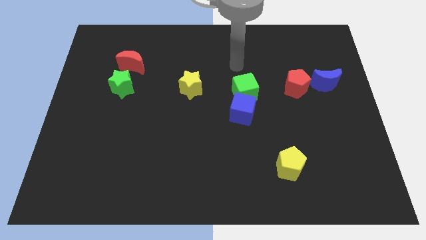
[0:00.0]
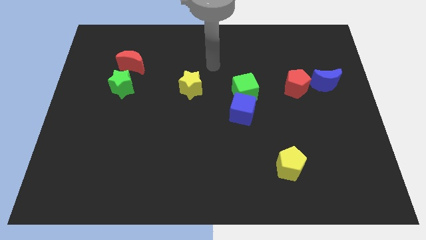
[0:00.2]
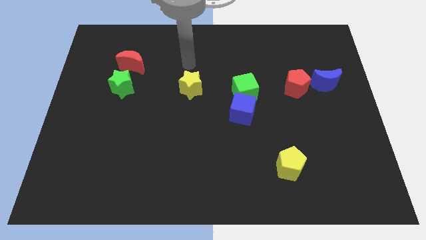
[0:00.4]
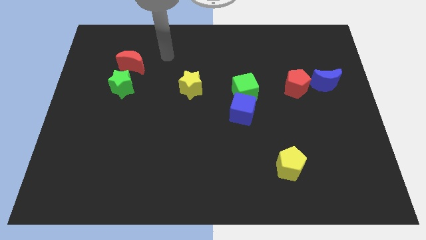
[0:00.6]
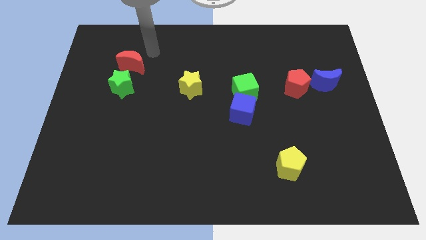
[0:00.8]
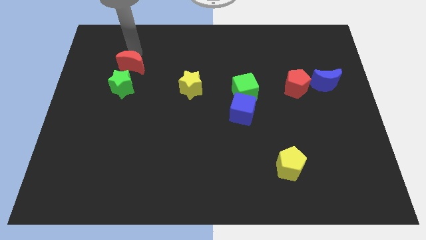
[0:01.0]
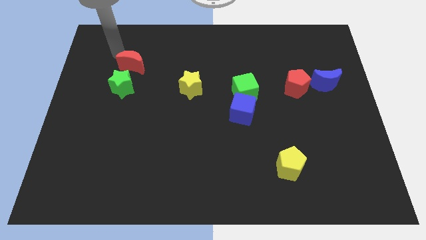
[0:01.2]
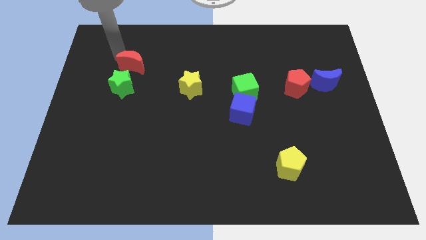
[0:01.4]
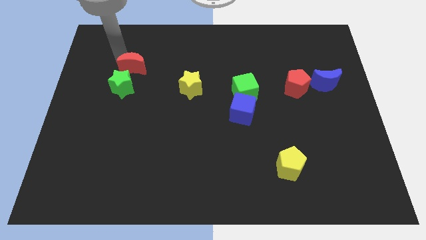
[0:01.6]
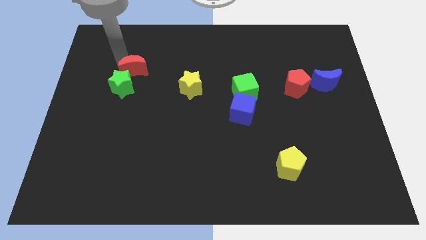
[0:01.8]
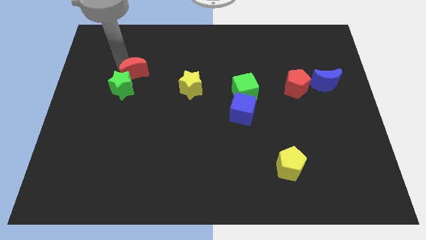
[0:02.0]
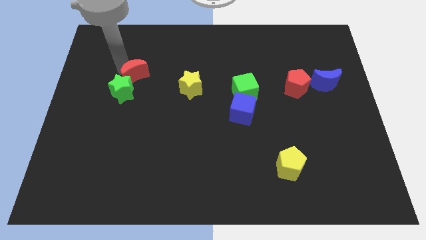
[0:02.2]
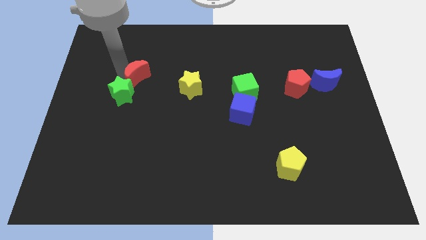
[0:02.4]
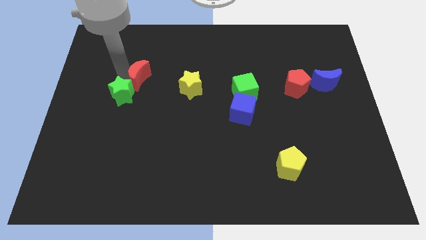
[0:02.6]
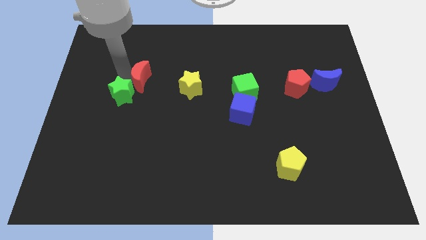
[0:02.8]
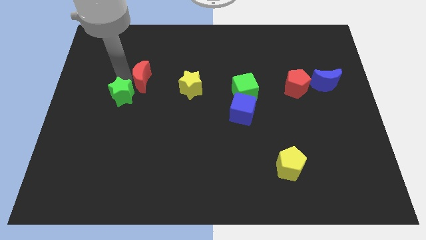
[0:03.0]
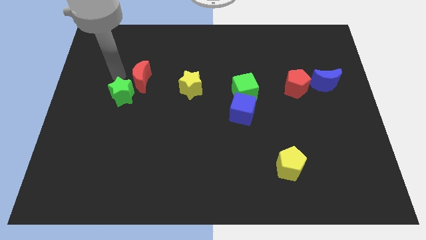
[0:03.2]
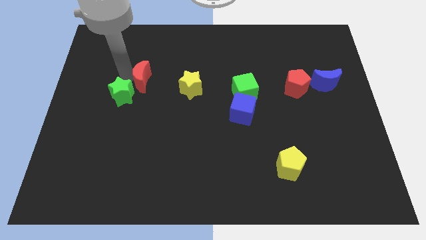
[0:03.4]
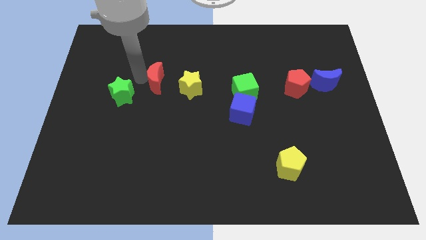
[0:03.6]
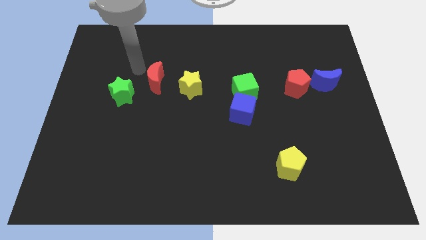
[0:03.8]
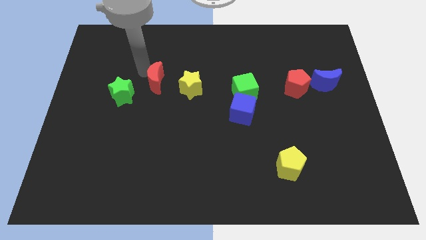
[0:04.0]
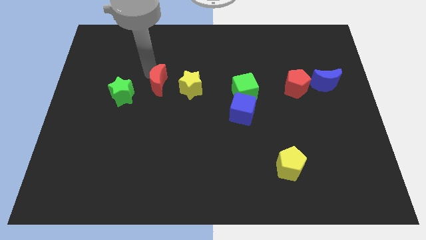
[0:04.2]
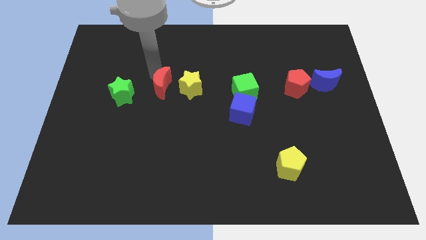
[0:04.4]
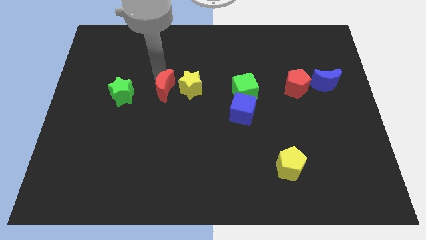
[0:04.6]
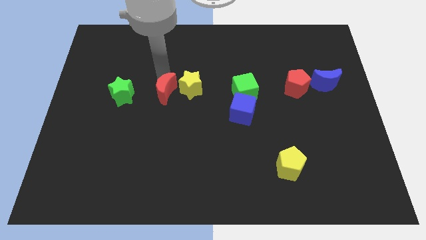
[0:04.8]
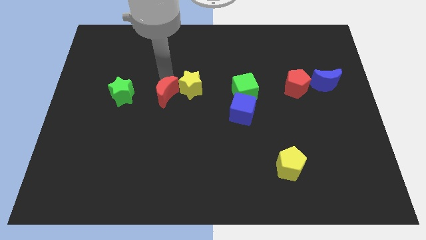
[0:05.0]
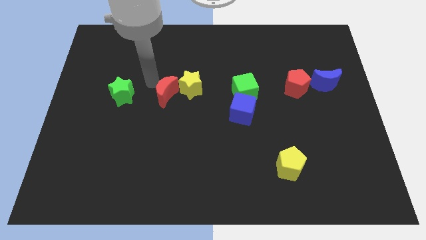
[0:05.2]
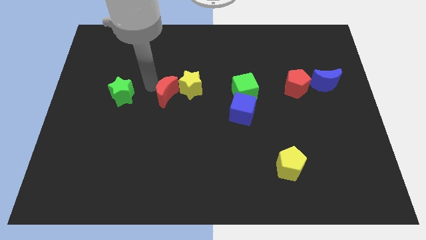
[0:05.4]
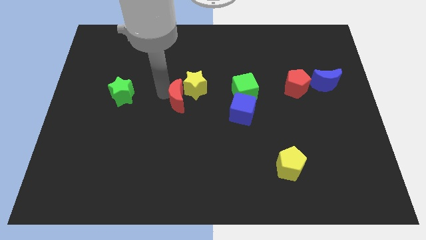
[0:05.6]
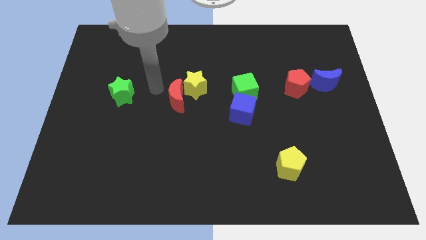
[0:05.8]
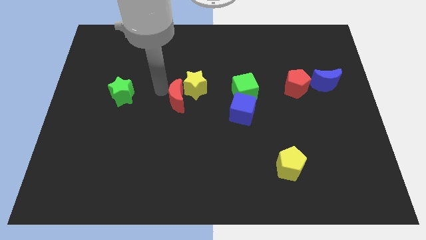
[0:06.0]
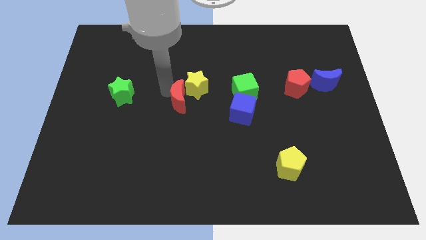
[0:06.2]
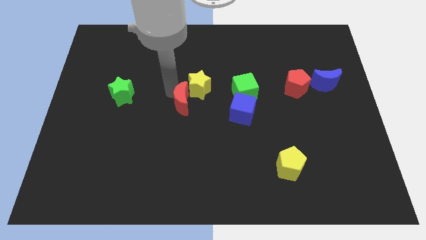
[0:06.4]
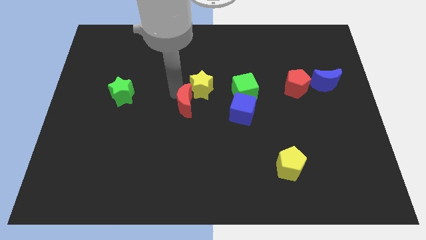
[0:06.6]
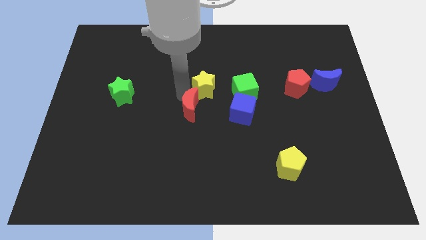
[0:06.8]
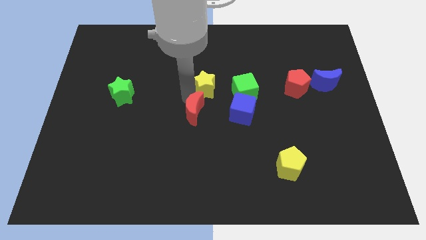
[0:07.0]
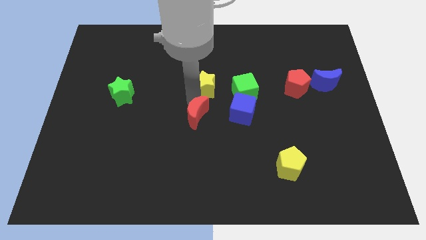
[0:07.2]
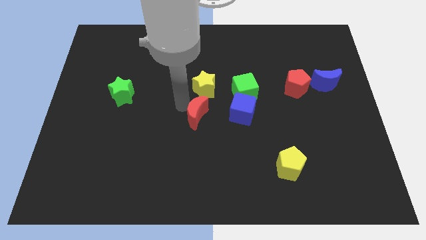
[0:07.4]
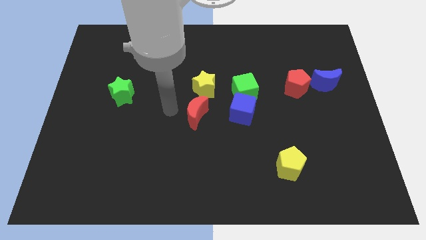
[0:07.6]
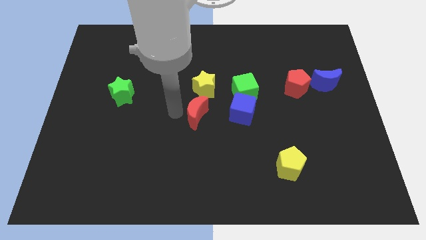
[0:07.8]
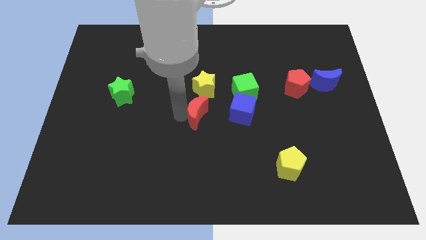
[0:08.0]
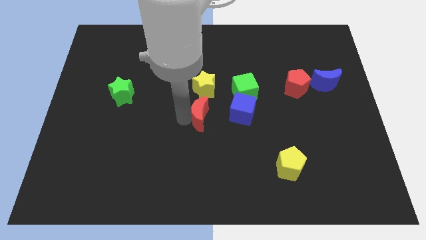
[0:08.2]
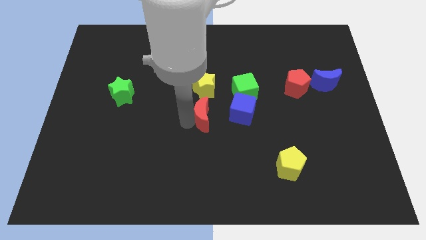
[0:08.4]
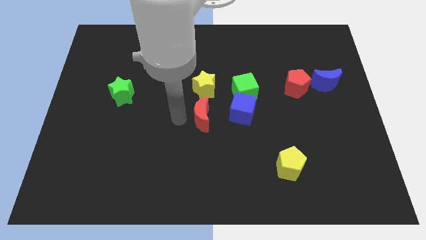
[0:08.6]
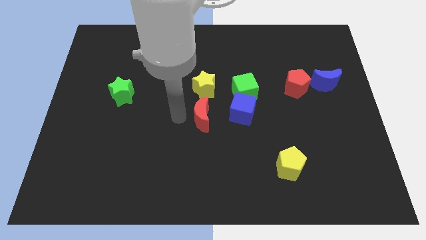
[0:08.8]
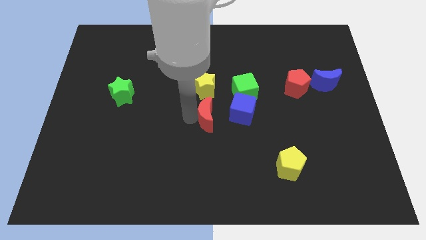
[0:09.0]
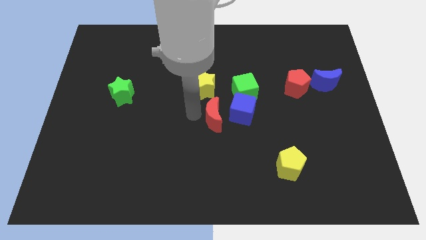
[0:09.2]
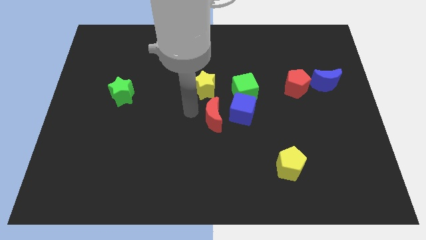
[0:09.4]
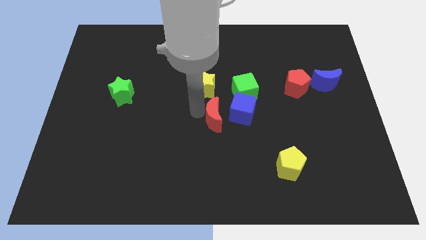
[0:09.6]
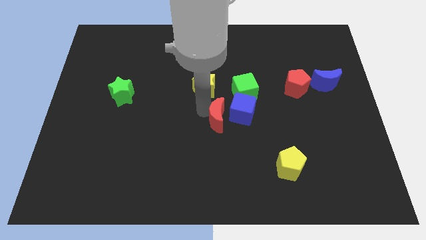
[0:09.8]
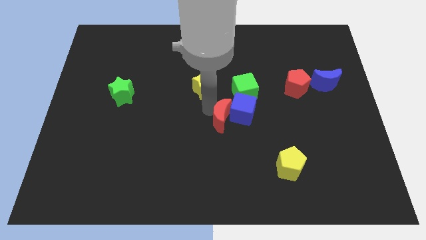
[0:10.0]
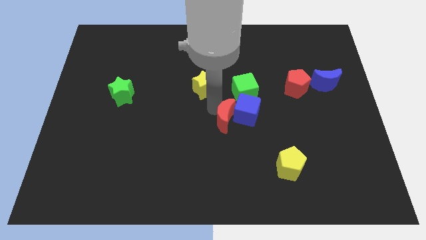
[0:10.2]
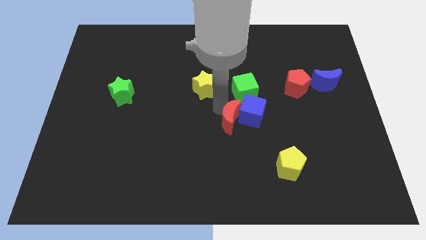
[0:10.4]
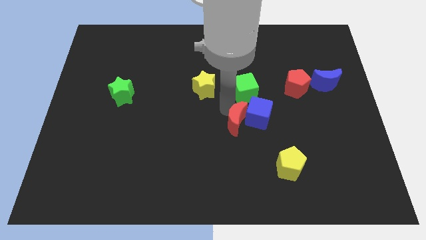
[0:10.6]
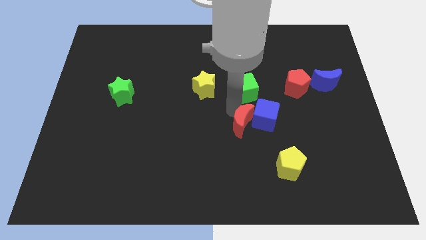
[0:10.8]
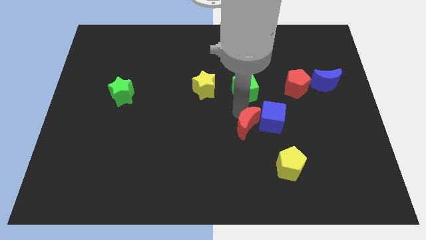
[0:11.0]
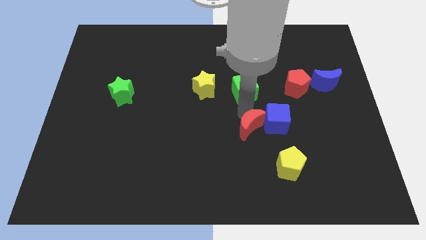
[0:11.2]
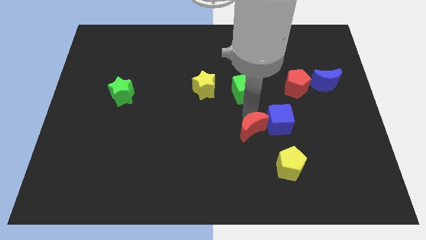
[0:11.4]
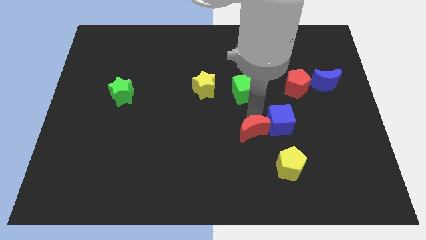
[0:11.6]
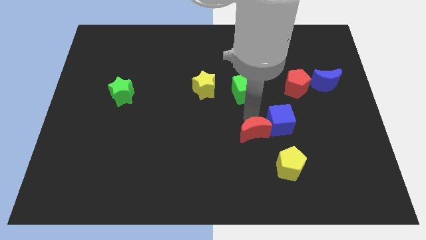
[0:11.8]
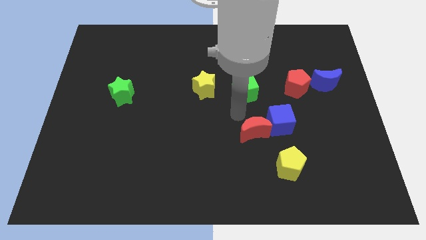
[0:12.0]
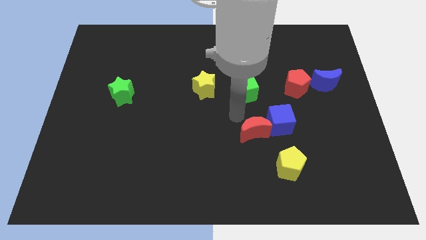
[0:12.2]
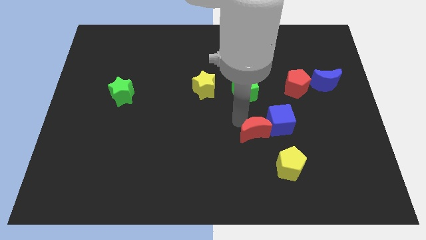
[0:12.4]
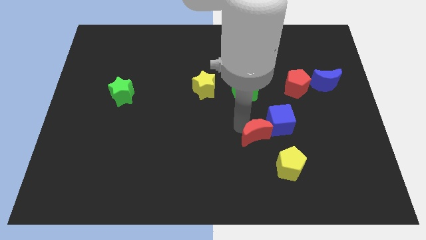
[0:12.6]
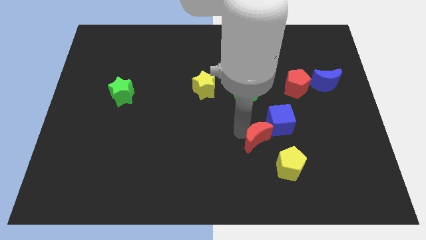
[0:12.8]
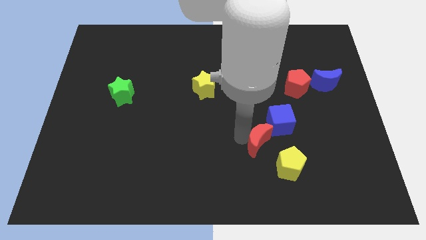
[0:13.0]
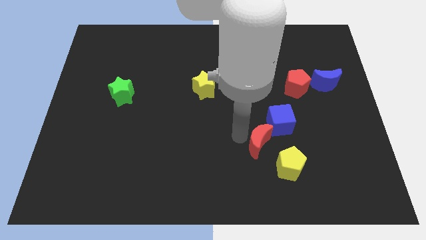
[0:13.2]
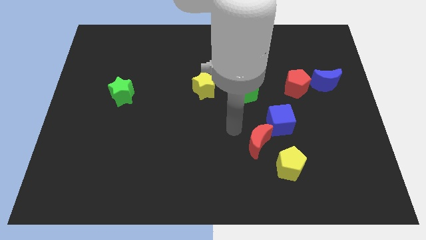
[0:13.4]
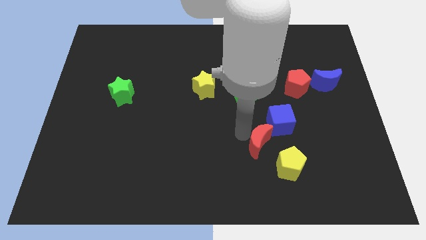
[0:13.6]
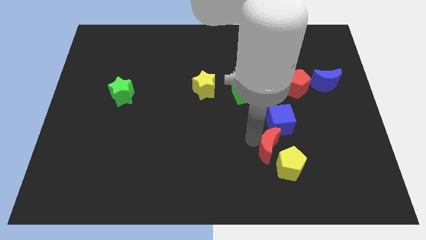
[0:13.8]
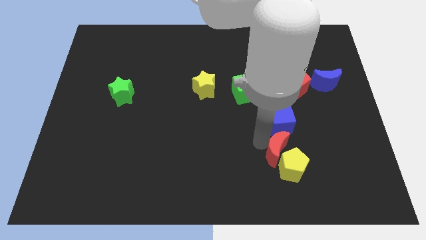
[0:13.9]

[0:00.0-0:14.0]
slide the red moon towards the yellow pentagon
